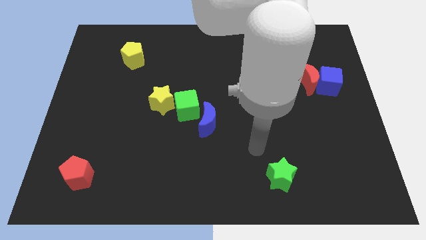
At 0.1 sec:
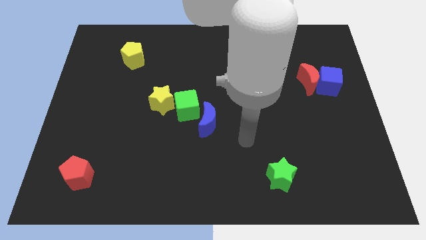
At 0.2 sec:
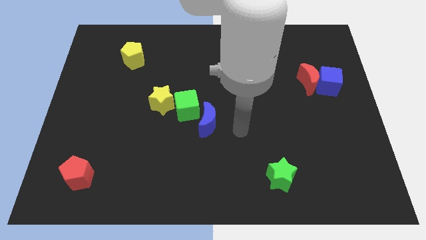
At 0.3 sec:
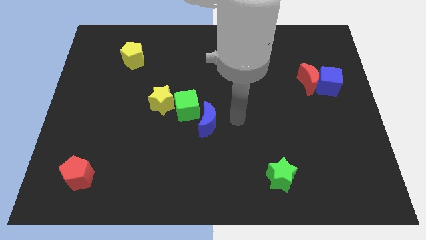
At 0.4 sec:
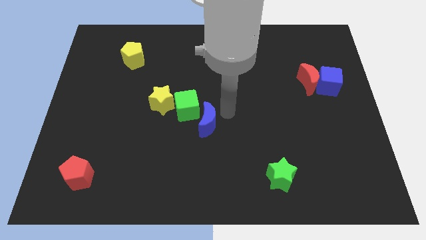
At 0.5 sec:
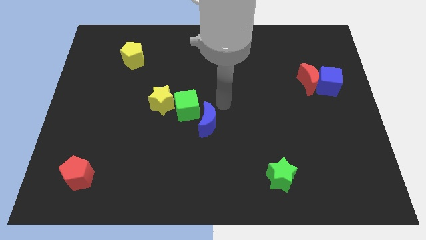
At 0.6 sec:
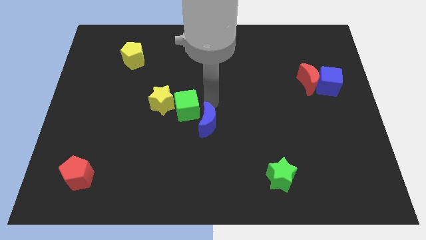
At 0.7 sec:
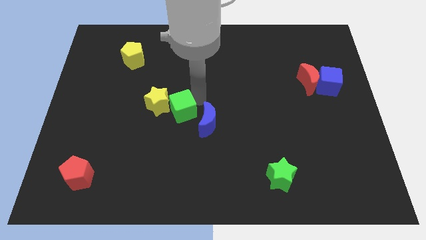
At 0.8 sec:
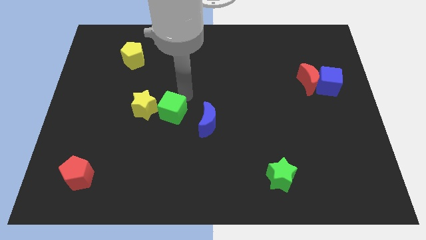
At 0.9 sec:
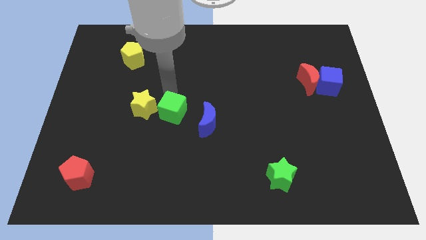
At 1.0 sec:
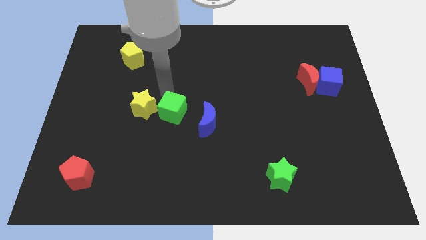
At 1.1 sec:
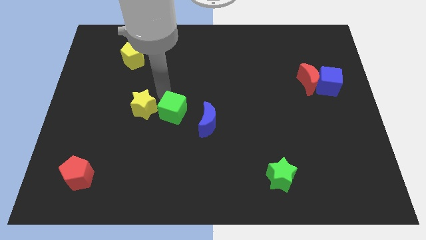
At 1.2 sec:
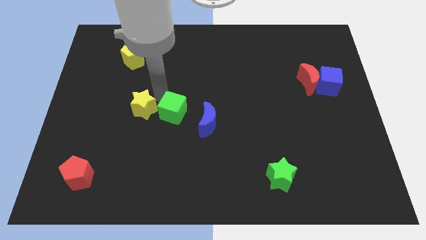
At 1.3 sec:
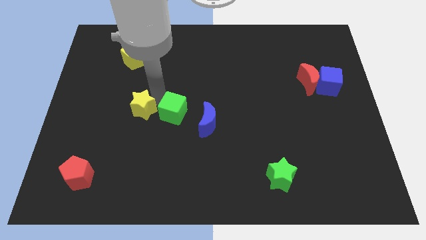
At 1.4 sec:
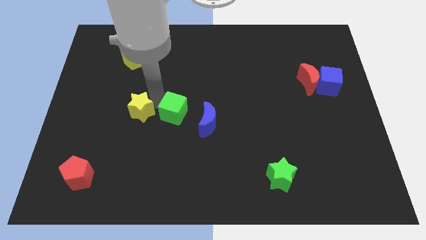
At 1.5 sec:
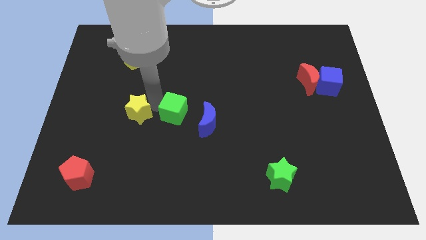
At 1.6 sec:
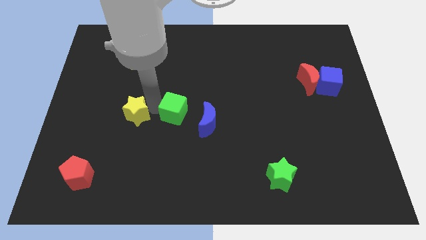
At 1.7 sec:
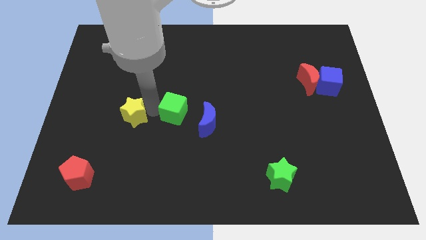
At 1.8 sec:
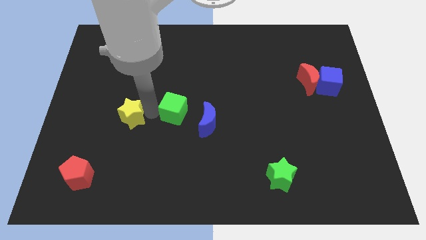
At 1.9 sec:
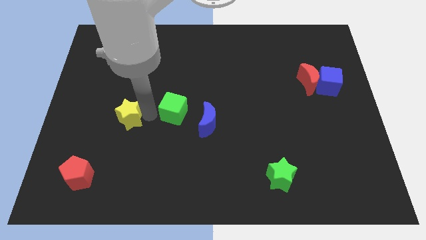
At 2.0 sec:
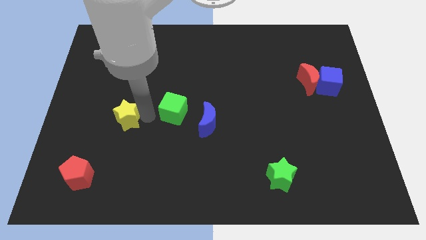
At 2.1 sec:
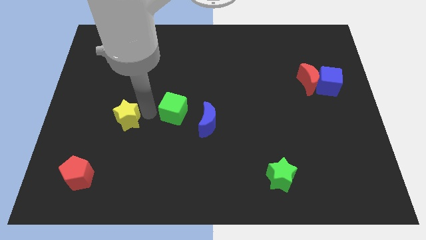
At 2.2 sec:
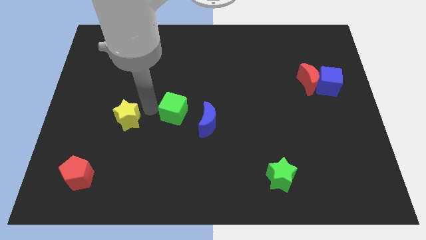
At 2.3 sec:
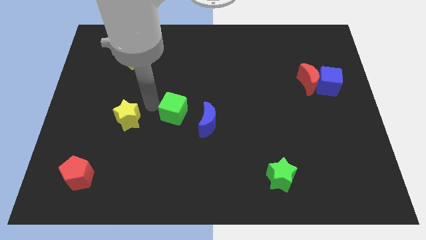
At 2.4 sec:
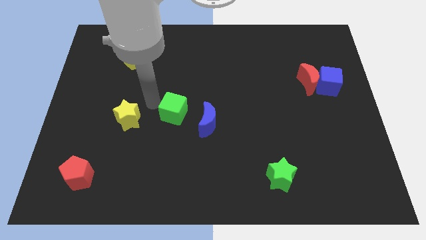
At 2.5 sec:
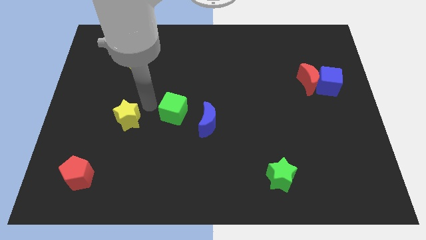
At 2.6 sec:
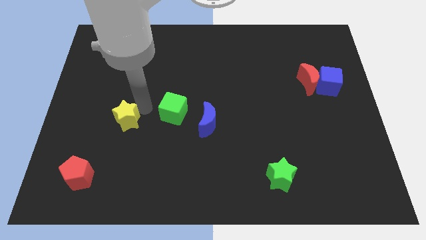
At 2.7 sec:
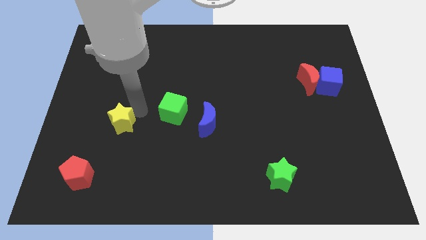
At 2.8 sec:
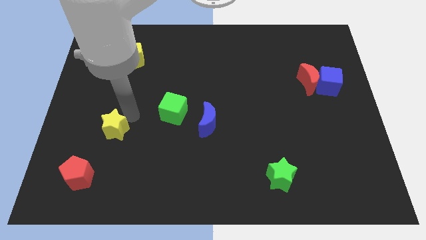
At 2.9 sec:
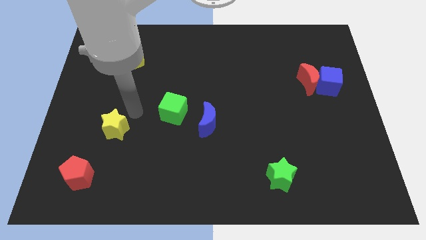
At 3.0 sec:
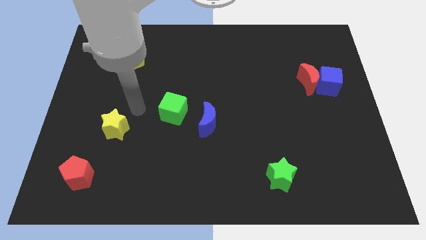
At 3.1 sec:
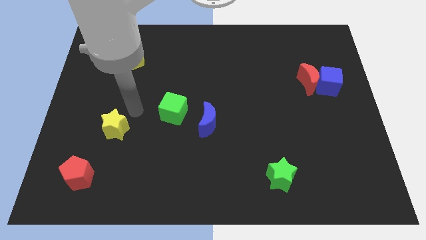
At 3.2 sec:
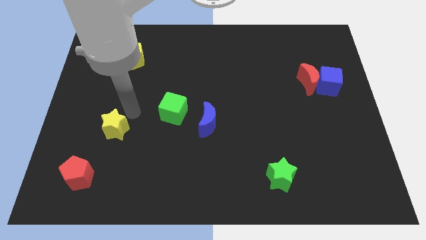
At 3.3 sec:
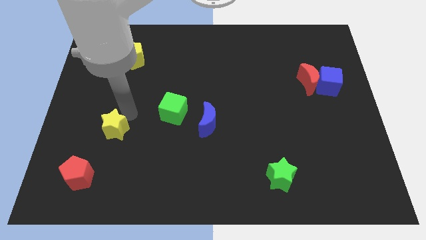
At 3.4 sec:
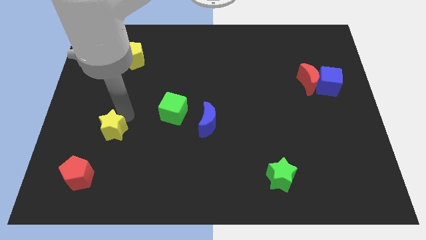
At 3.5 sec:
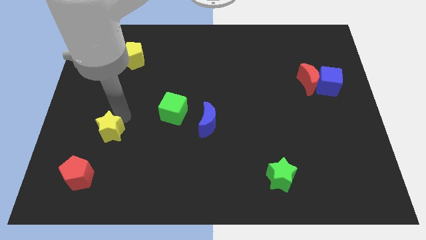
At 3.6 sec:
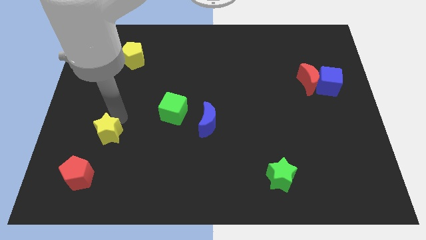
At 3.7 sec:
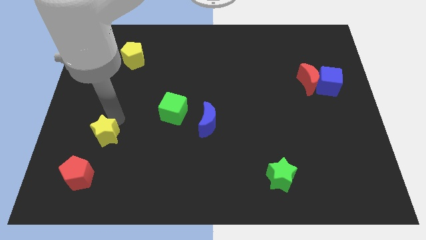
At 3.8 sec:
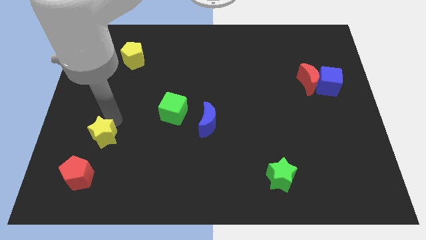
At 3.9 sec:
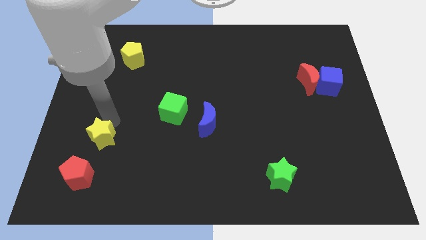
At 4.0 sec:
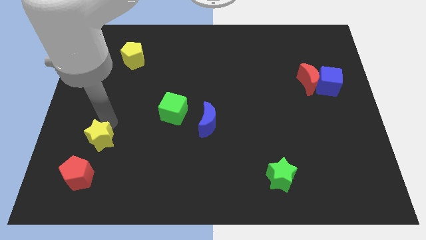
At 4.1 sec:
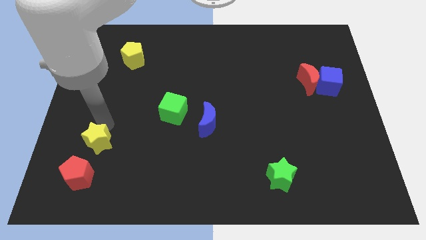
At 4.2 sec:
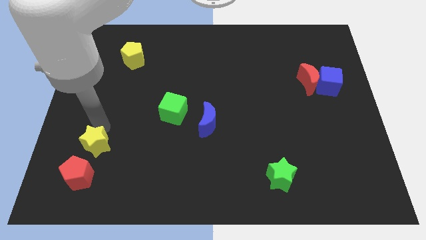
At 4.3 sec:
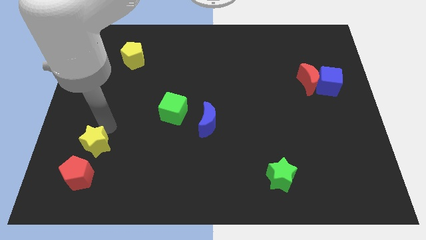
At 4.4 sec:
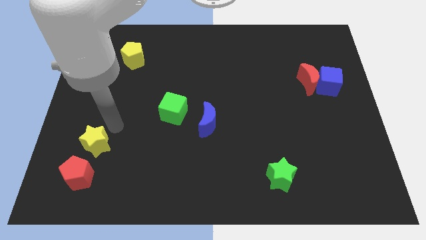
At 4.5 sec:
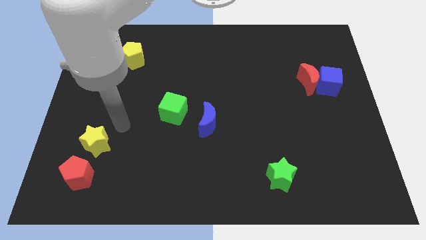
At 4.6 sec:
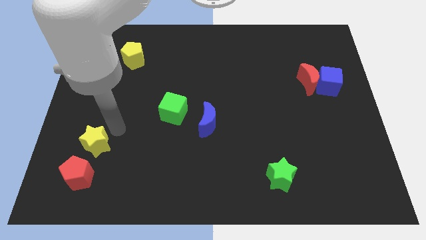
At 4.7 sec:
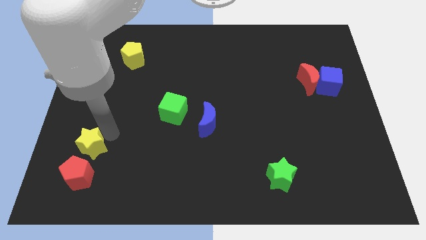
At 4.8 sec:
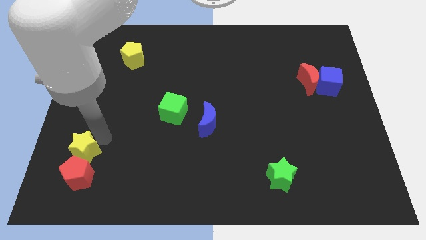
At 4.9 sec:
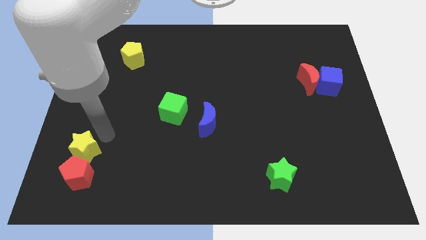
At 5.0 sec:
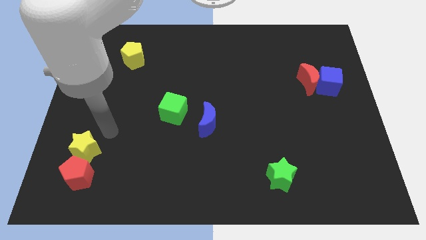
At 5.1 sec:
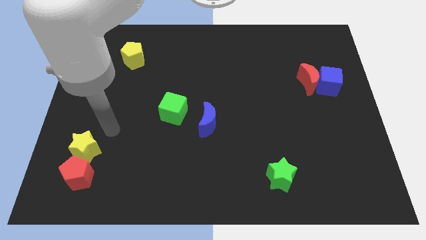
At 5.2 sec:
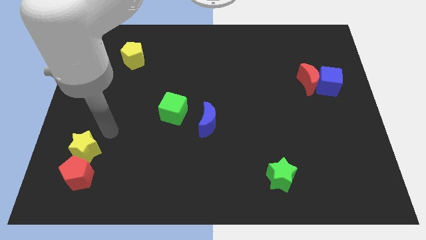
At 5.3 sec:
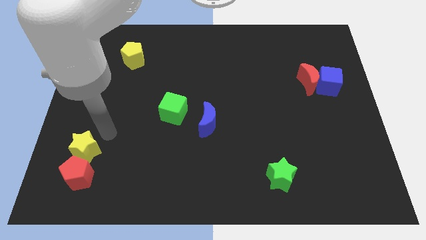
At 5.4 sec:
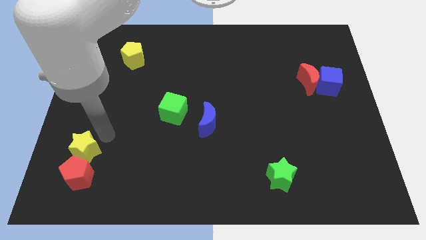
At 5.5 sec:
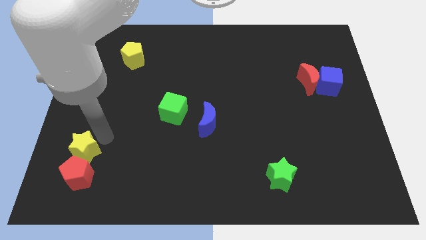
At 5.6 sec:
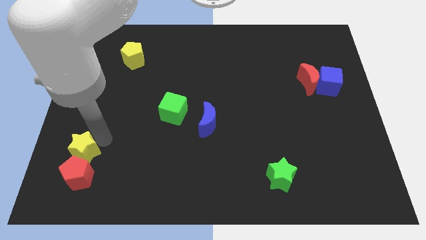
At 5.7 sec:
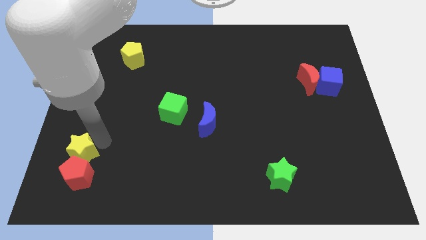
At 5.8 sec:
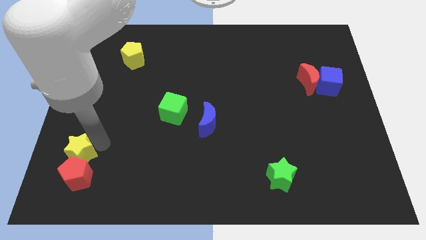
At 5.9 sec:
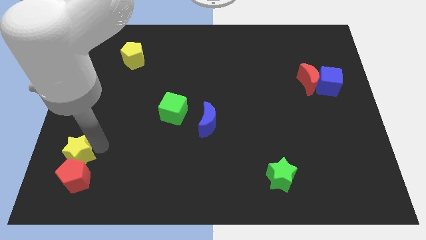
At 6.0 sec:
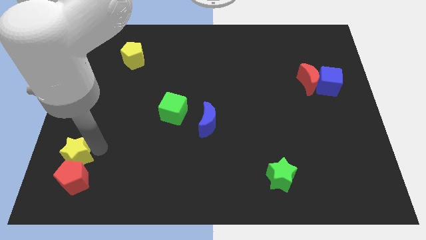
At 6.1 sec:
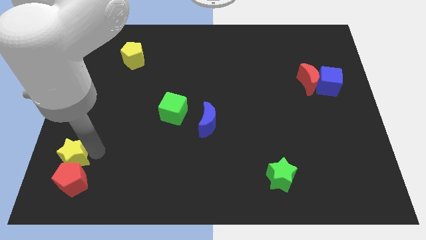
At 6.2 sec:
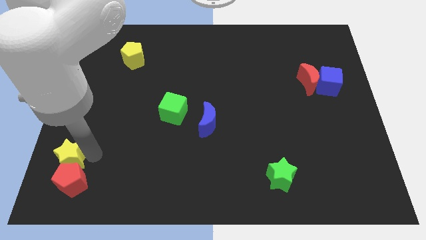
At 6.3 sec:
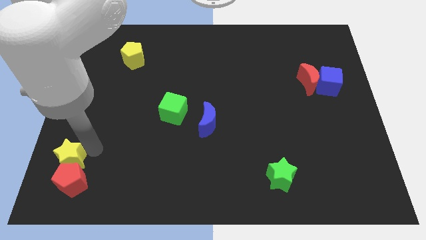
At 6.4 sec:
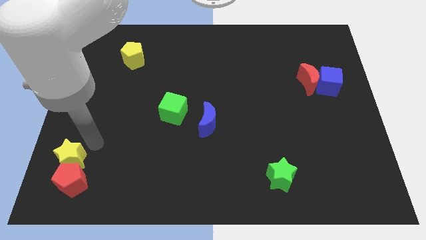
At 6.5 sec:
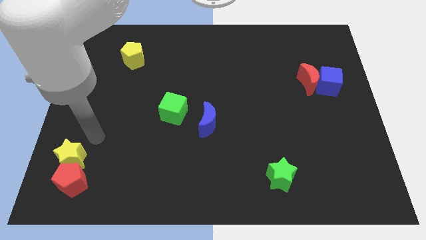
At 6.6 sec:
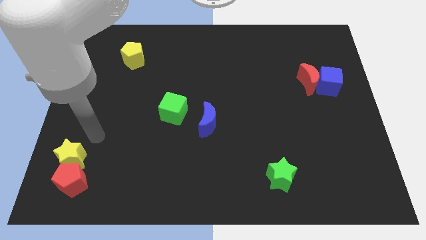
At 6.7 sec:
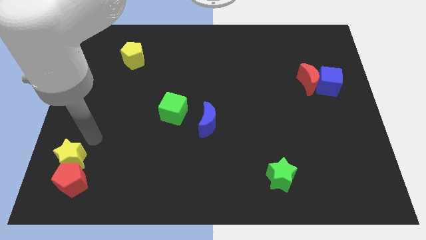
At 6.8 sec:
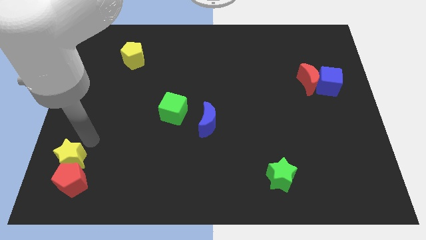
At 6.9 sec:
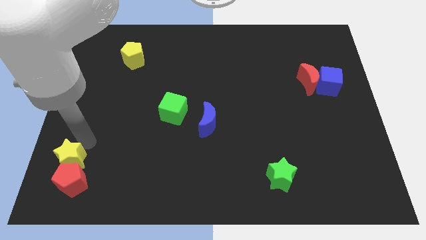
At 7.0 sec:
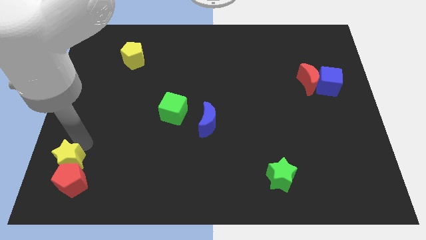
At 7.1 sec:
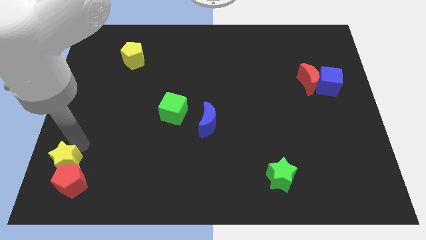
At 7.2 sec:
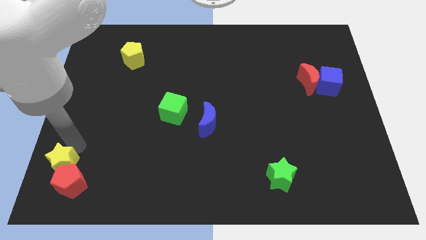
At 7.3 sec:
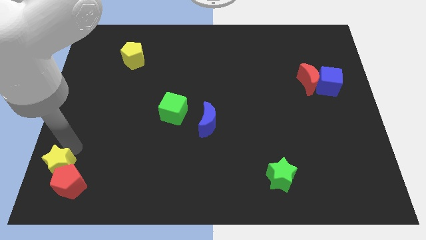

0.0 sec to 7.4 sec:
push the yellow star to the bottom left corner
